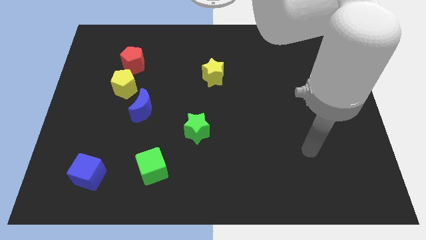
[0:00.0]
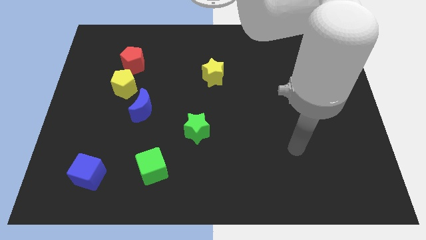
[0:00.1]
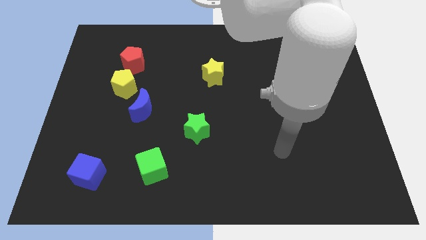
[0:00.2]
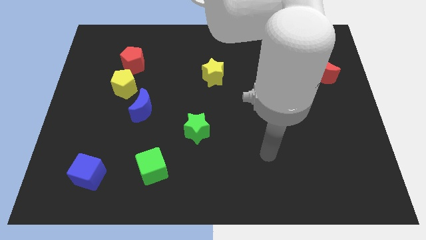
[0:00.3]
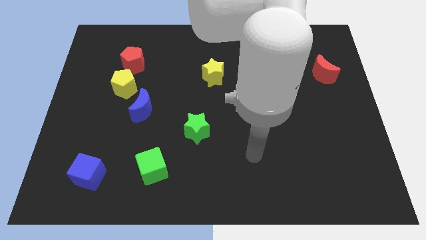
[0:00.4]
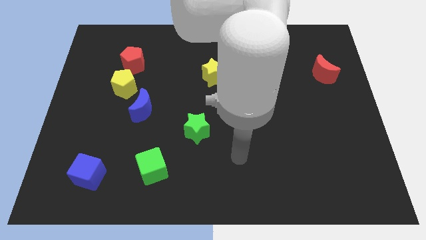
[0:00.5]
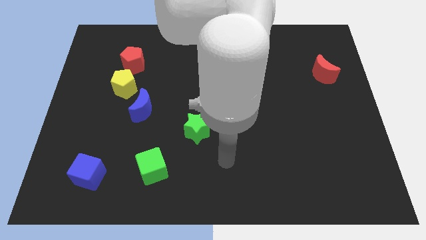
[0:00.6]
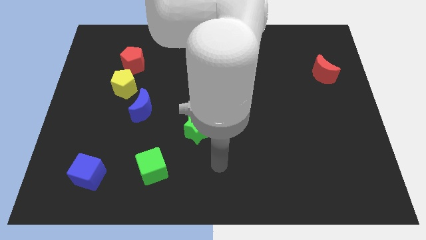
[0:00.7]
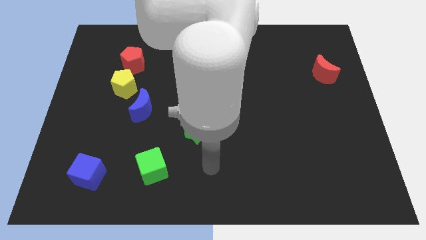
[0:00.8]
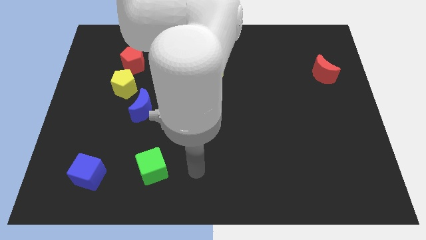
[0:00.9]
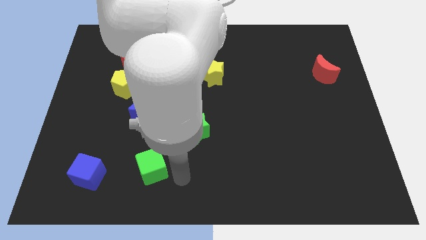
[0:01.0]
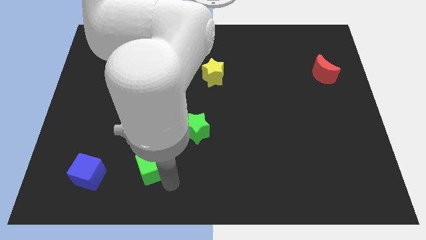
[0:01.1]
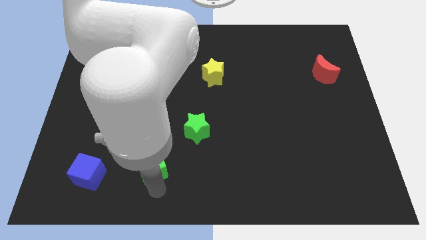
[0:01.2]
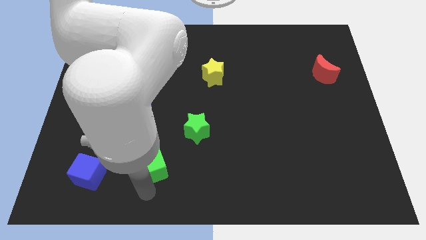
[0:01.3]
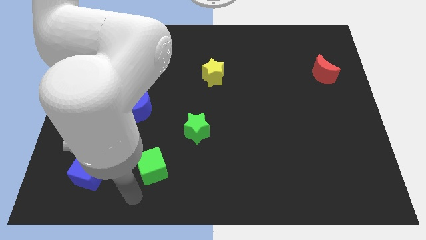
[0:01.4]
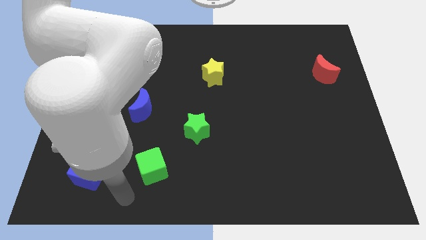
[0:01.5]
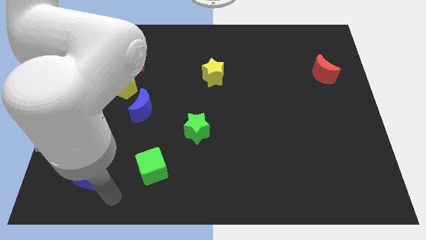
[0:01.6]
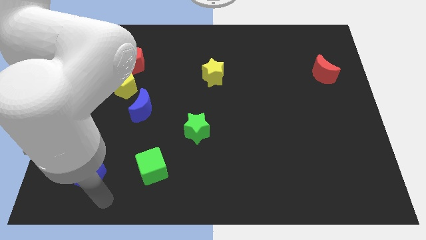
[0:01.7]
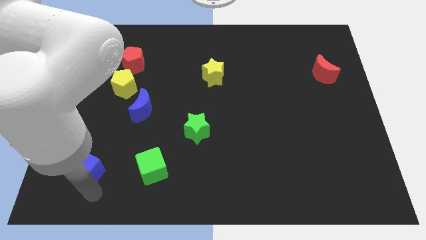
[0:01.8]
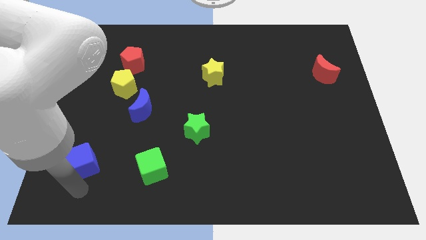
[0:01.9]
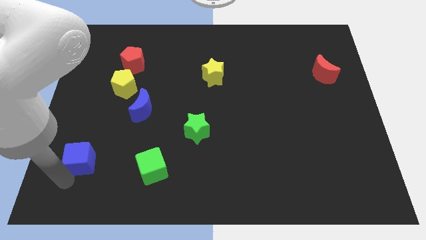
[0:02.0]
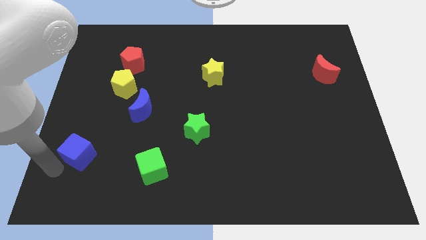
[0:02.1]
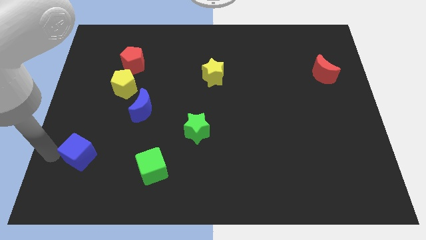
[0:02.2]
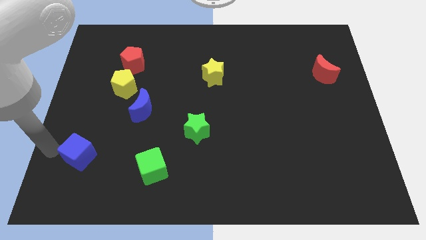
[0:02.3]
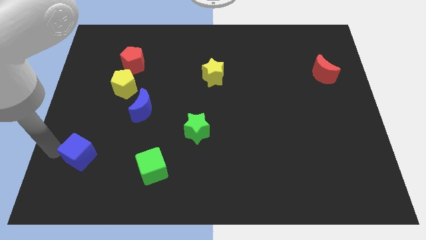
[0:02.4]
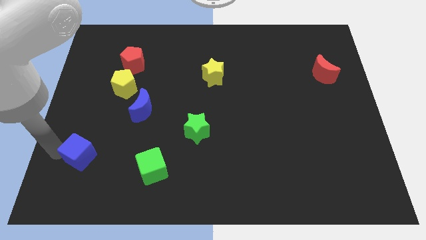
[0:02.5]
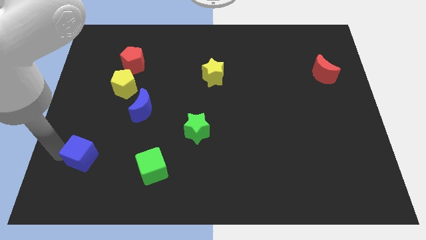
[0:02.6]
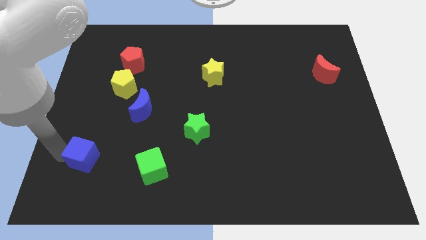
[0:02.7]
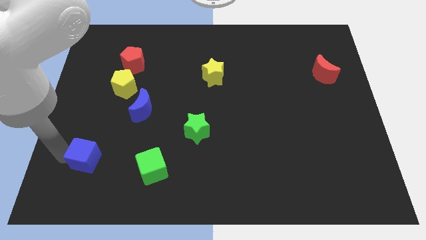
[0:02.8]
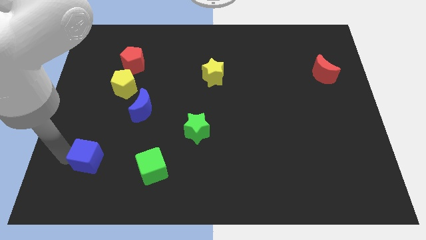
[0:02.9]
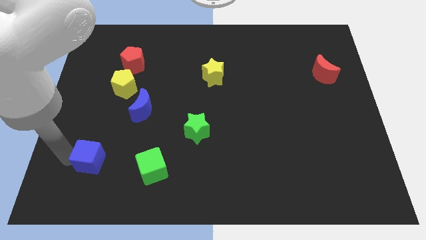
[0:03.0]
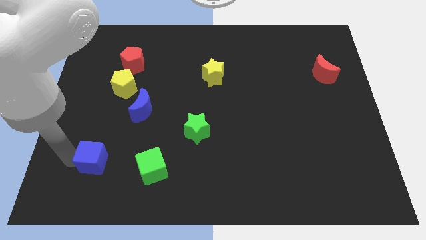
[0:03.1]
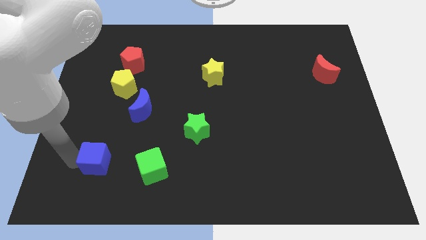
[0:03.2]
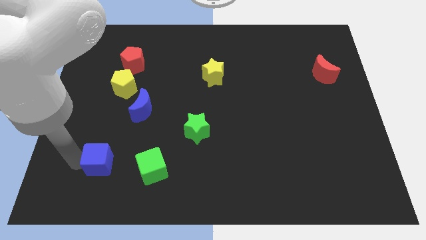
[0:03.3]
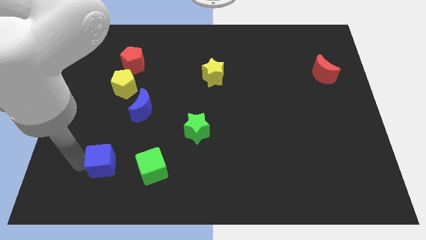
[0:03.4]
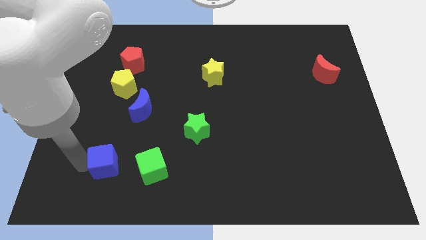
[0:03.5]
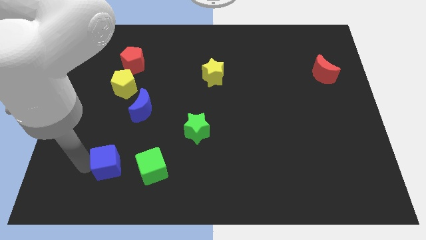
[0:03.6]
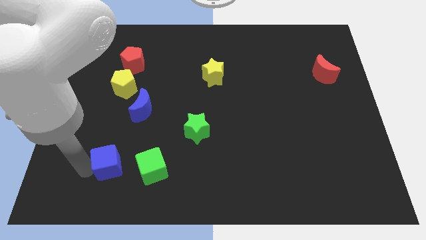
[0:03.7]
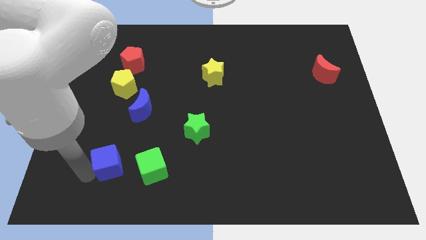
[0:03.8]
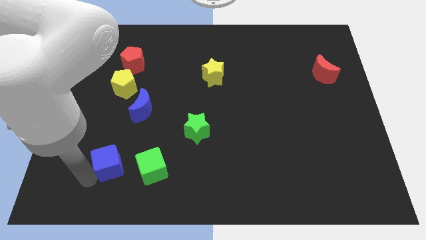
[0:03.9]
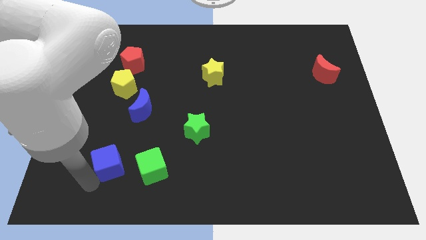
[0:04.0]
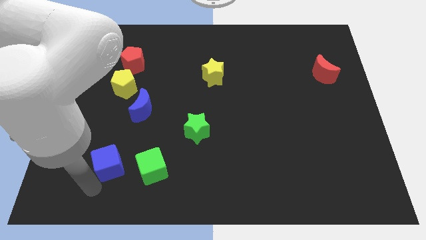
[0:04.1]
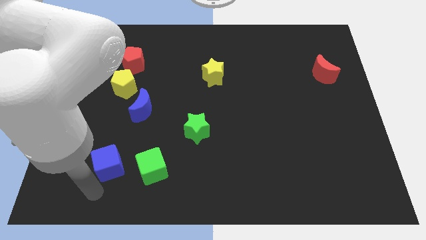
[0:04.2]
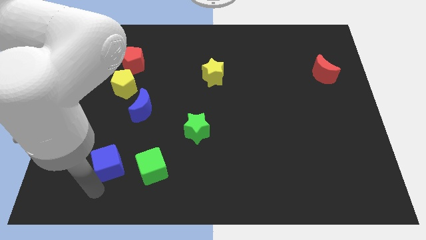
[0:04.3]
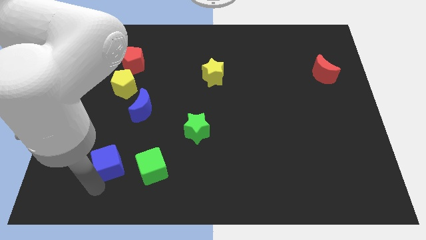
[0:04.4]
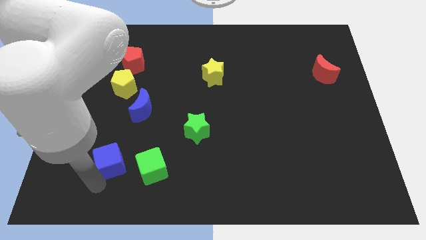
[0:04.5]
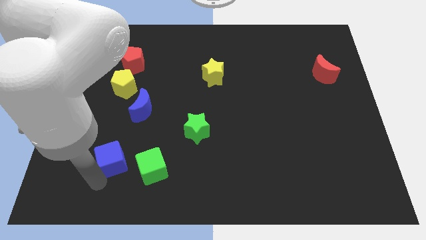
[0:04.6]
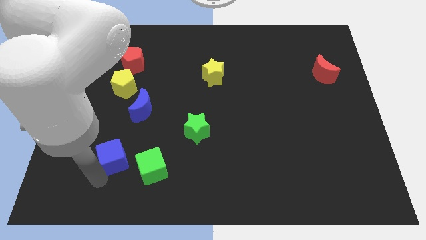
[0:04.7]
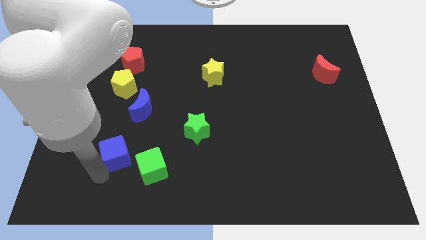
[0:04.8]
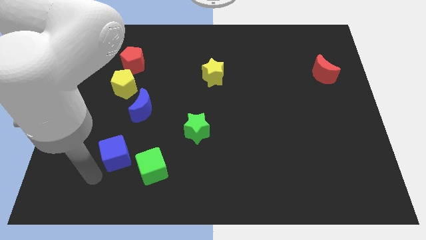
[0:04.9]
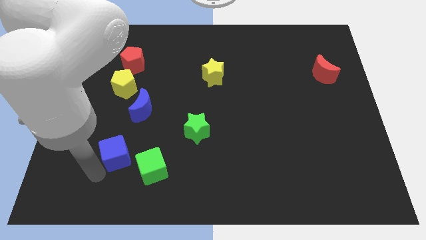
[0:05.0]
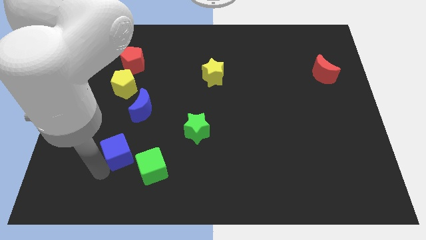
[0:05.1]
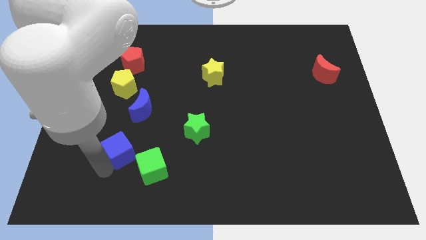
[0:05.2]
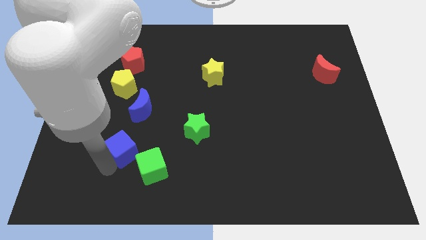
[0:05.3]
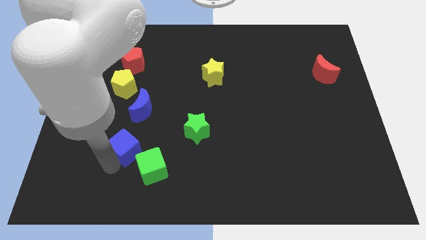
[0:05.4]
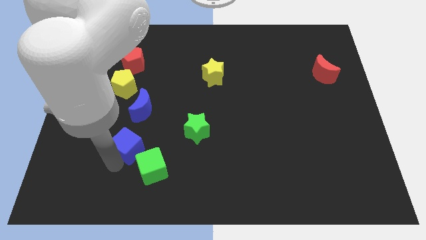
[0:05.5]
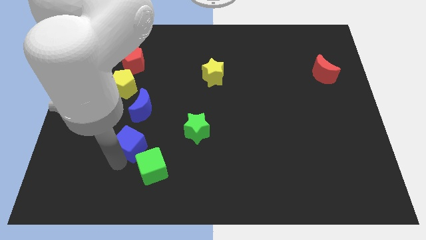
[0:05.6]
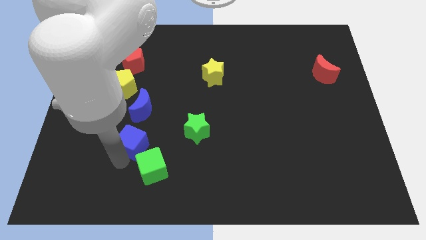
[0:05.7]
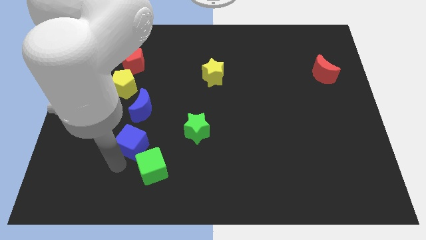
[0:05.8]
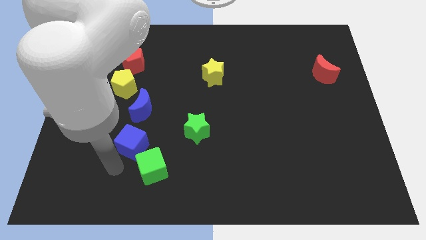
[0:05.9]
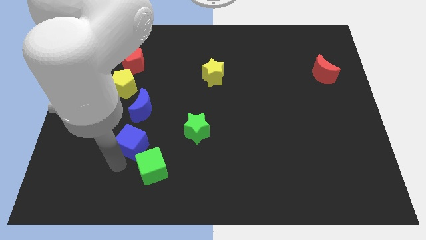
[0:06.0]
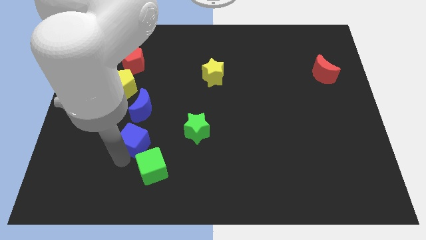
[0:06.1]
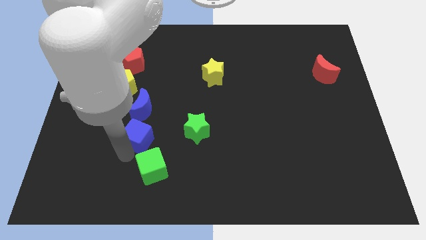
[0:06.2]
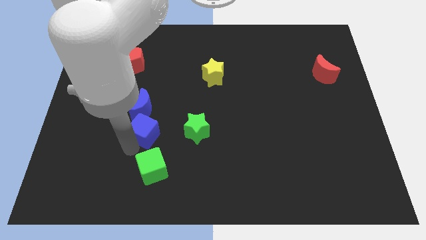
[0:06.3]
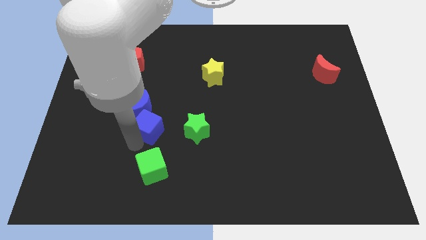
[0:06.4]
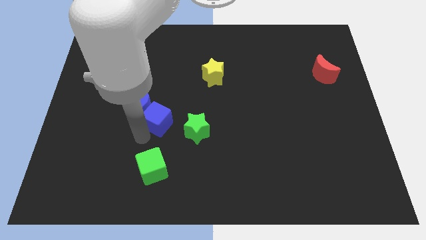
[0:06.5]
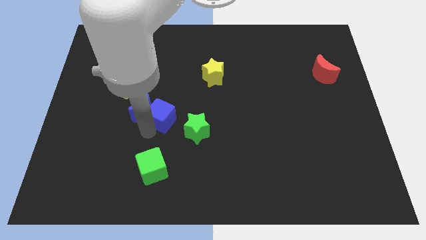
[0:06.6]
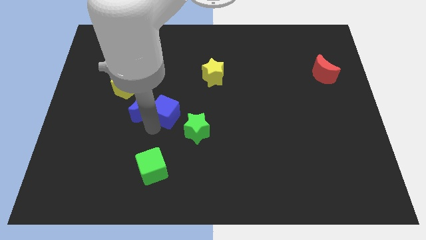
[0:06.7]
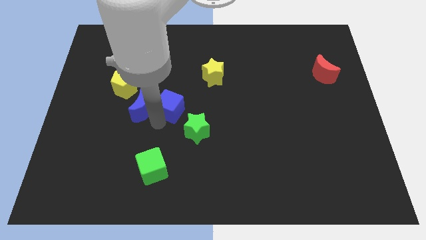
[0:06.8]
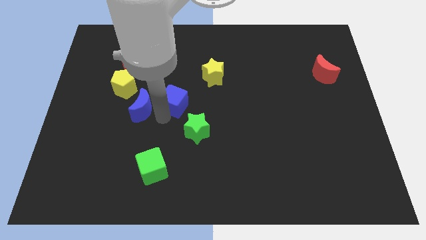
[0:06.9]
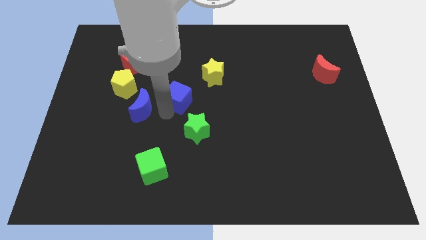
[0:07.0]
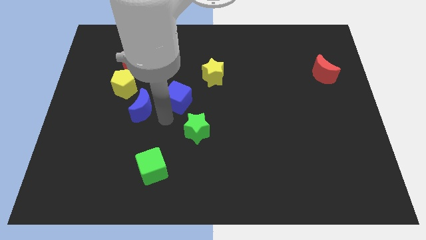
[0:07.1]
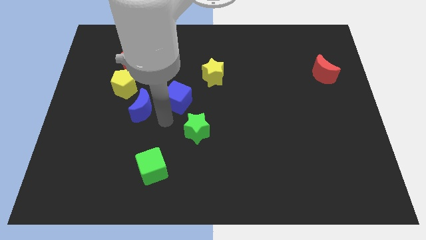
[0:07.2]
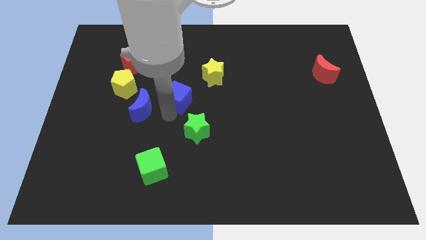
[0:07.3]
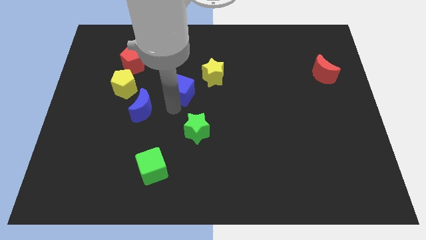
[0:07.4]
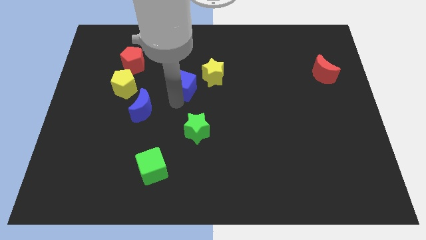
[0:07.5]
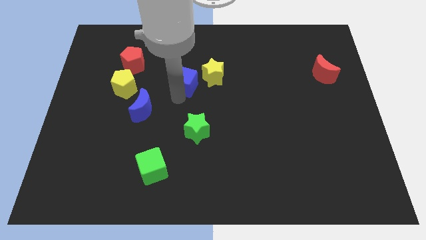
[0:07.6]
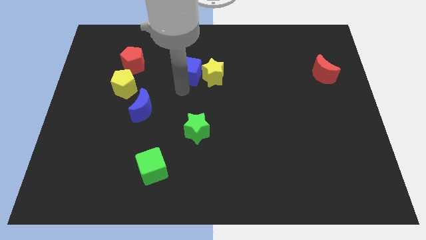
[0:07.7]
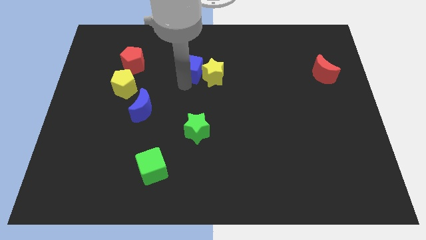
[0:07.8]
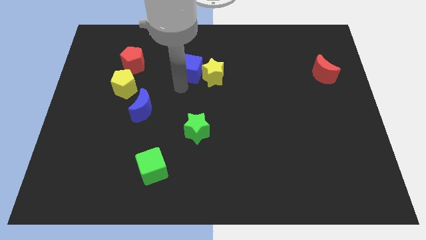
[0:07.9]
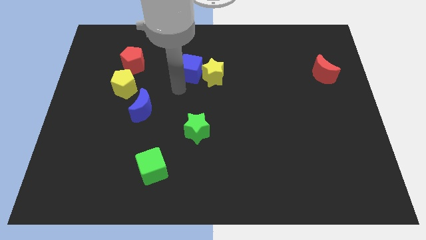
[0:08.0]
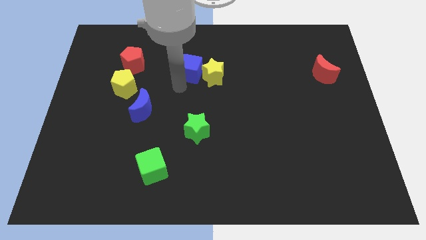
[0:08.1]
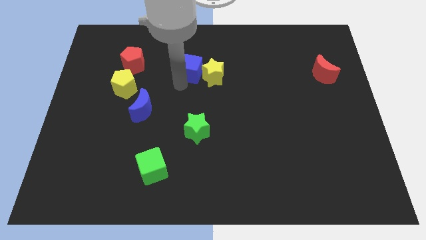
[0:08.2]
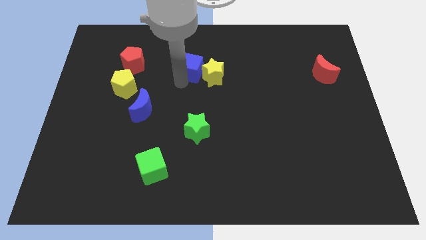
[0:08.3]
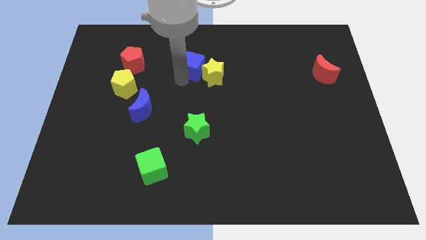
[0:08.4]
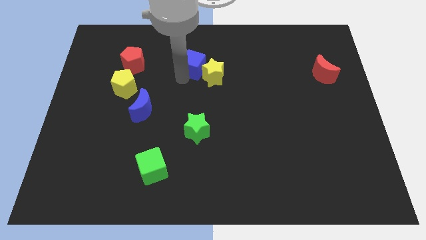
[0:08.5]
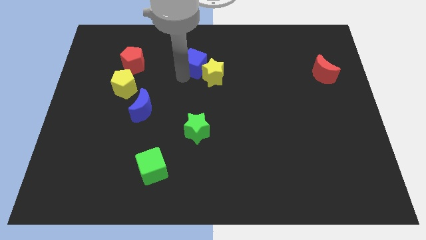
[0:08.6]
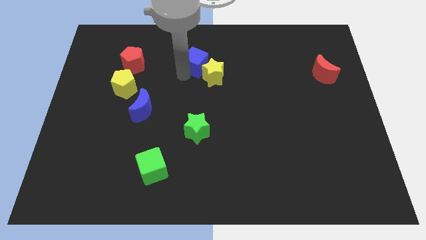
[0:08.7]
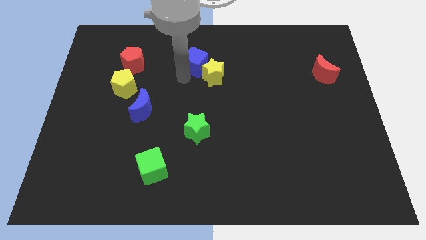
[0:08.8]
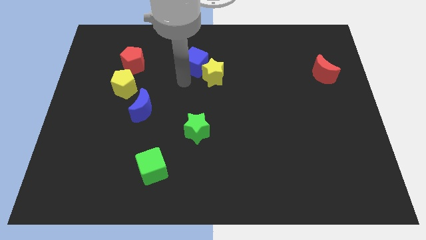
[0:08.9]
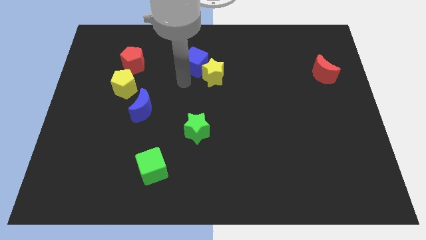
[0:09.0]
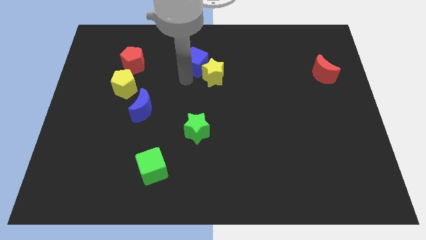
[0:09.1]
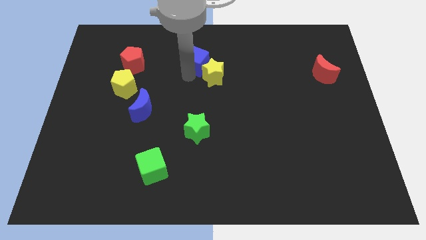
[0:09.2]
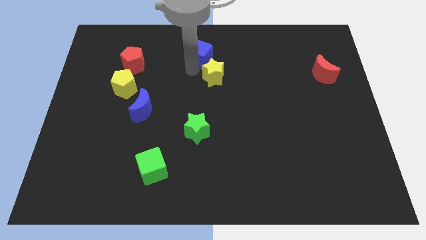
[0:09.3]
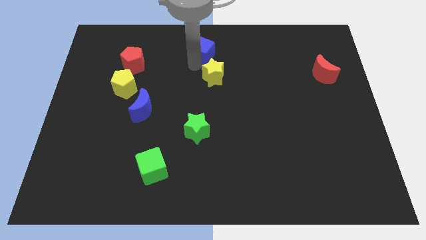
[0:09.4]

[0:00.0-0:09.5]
put the blue cube to the top side
